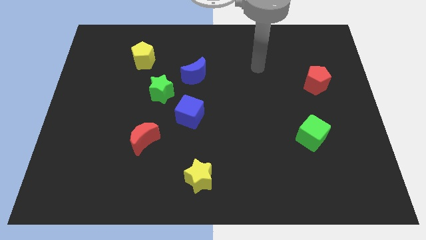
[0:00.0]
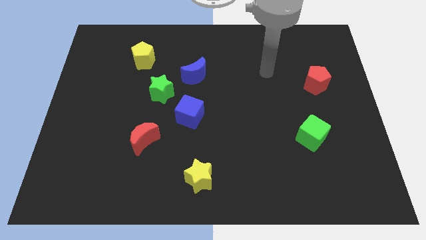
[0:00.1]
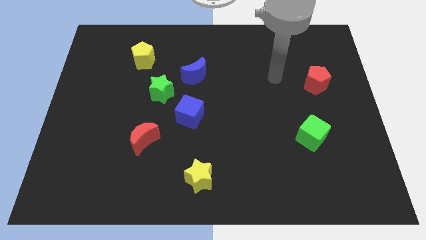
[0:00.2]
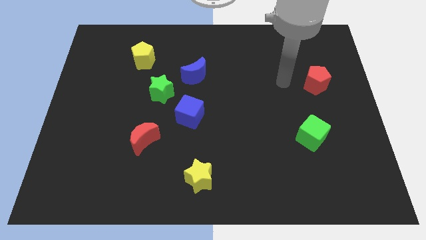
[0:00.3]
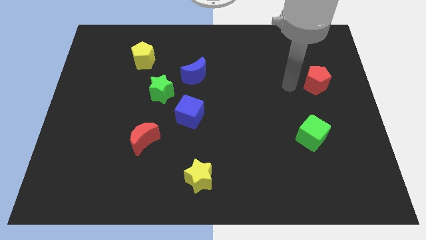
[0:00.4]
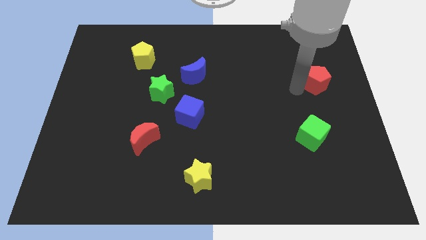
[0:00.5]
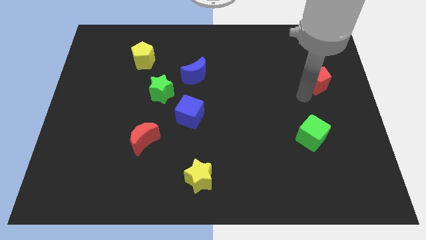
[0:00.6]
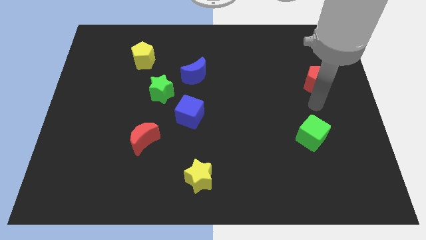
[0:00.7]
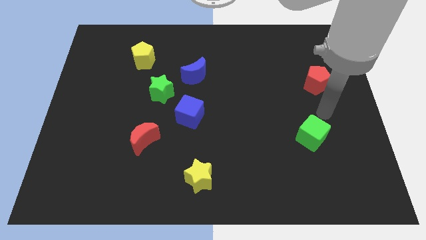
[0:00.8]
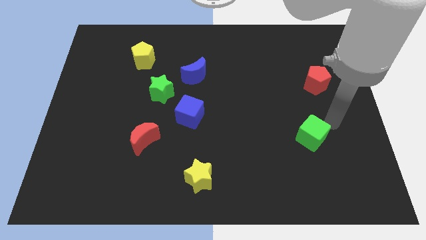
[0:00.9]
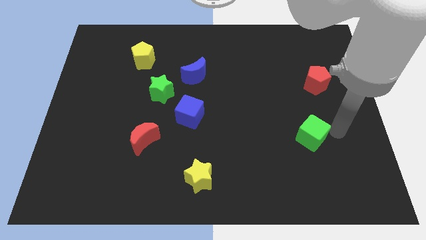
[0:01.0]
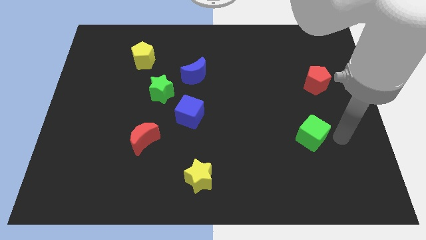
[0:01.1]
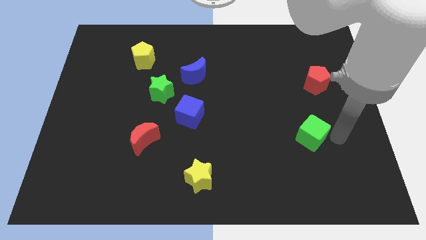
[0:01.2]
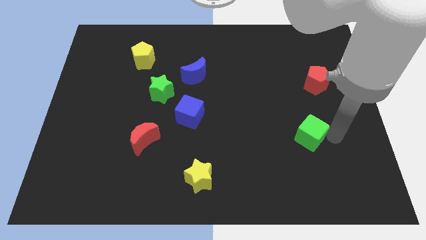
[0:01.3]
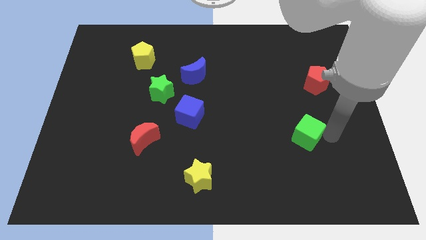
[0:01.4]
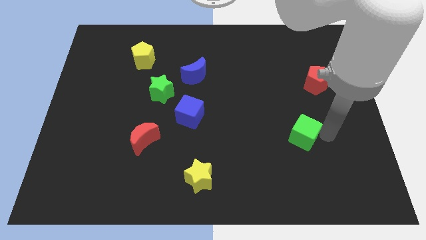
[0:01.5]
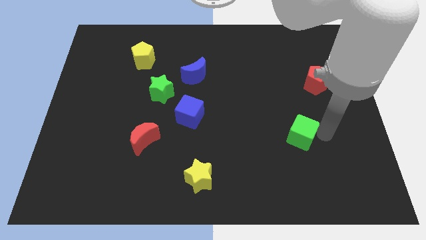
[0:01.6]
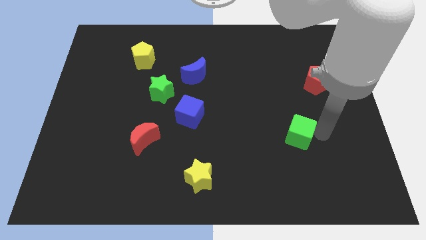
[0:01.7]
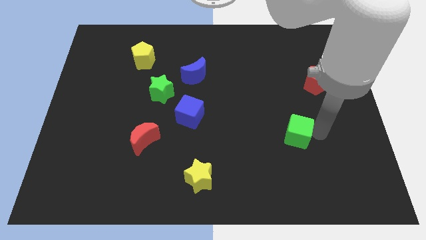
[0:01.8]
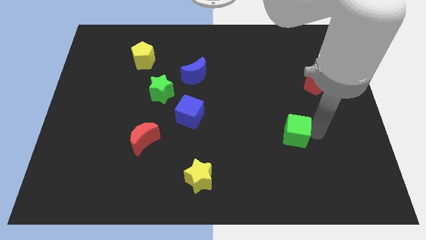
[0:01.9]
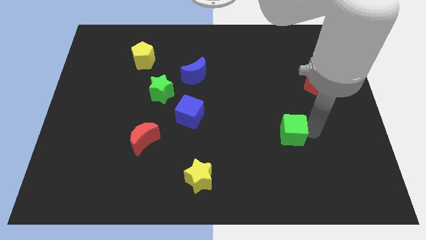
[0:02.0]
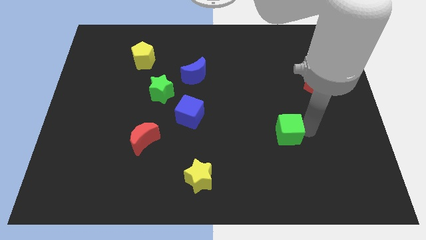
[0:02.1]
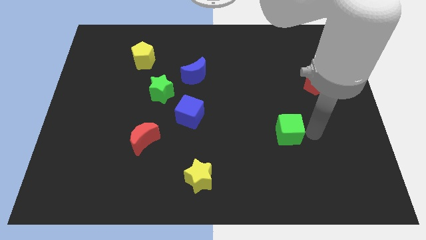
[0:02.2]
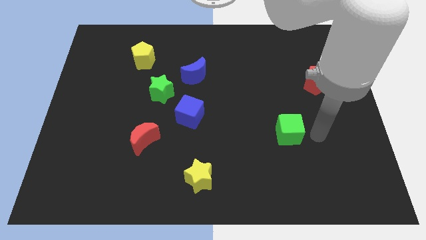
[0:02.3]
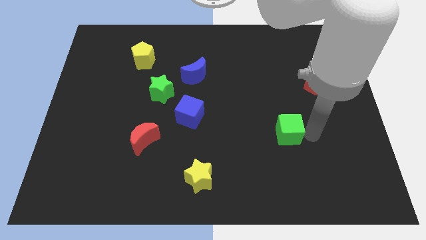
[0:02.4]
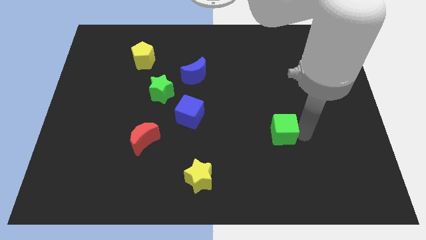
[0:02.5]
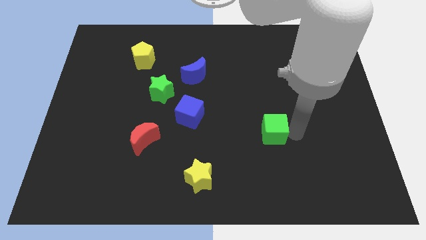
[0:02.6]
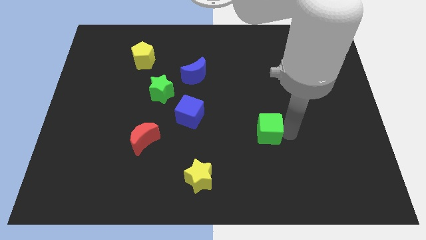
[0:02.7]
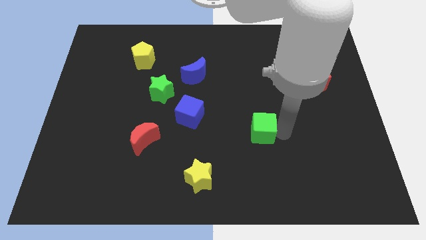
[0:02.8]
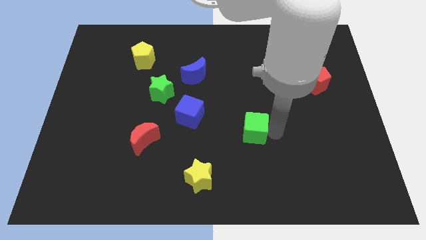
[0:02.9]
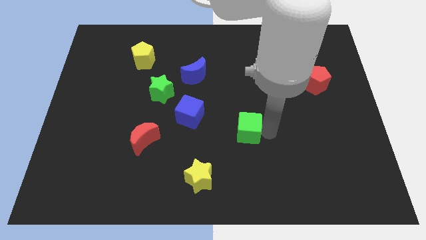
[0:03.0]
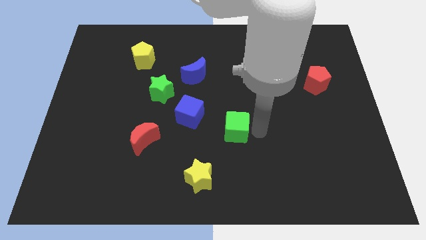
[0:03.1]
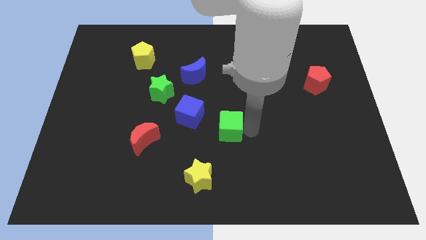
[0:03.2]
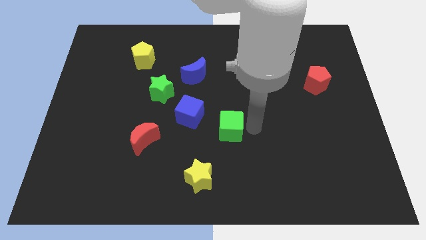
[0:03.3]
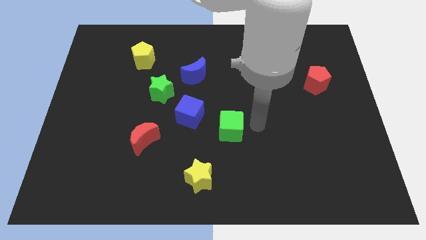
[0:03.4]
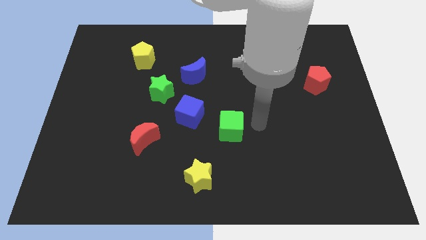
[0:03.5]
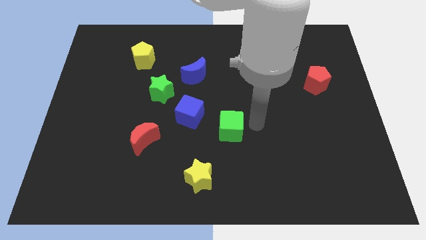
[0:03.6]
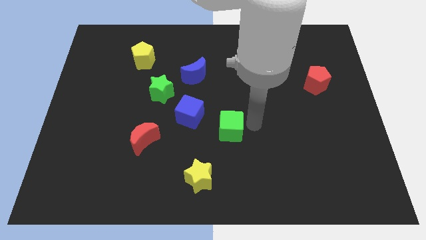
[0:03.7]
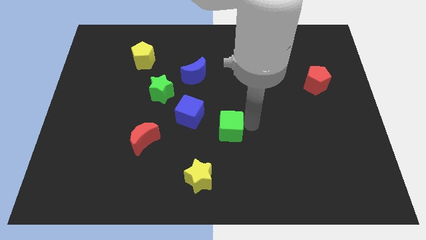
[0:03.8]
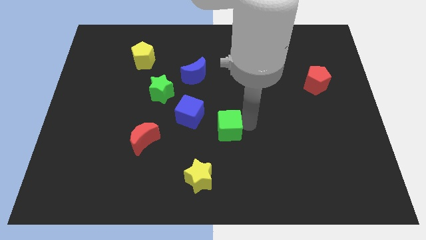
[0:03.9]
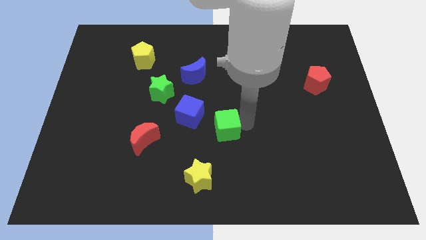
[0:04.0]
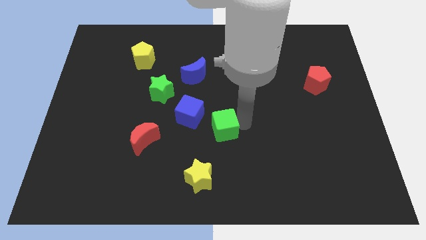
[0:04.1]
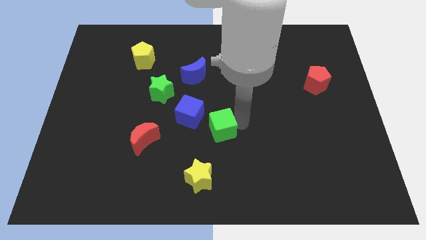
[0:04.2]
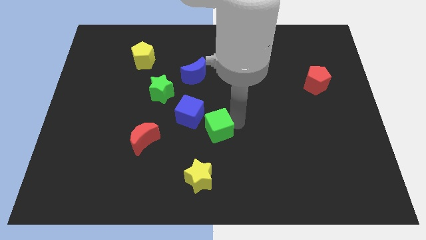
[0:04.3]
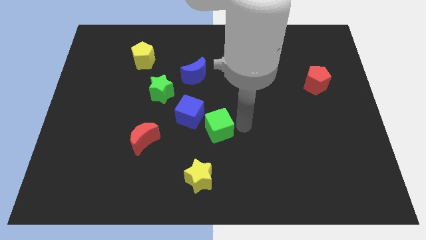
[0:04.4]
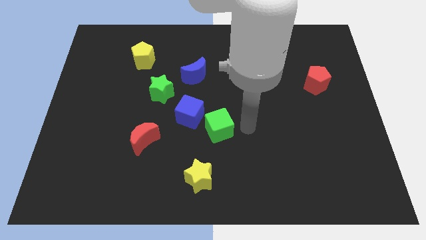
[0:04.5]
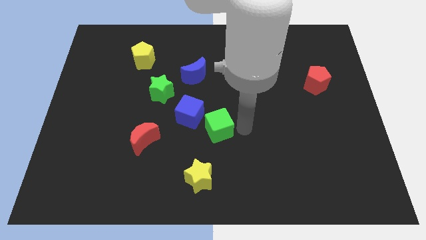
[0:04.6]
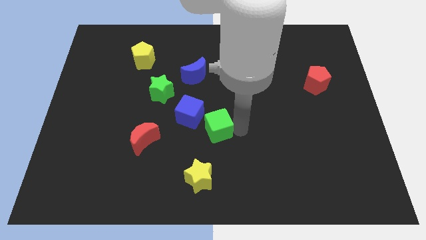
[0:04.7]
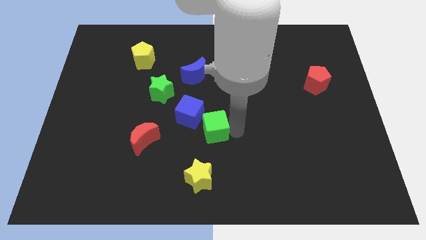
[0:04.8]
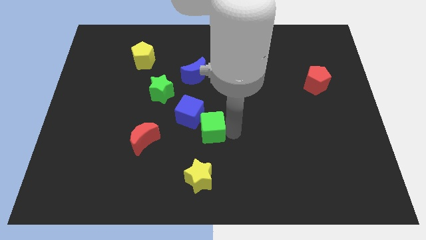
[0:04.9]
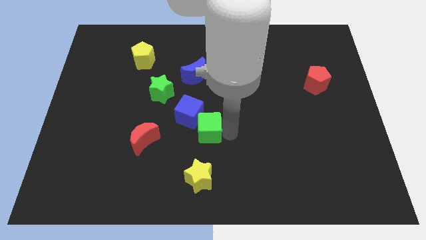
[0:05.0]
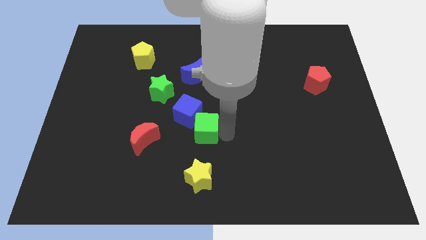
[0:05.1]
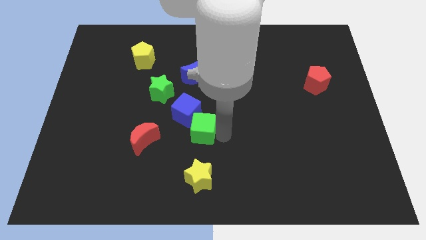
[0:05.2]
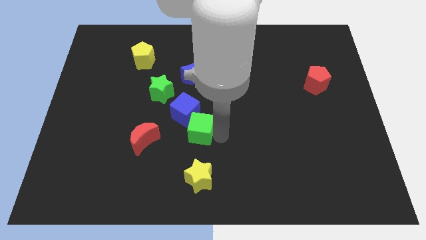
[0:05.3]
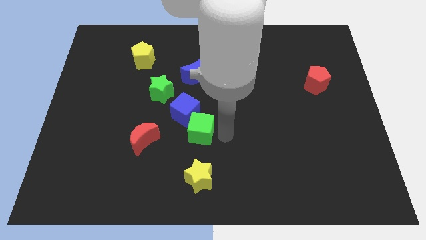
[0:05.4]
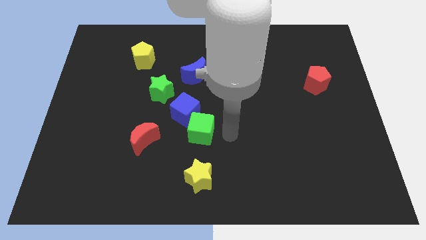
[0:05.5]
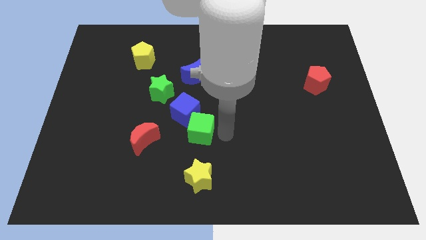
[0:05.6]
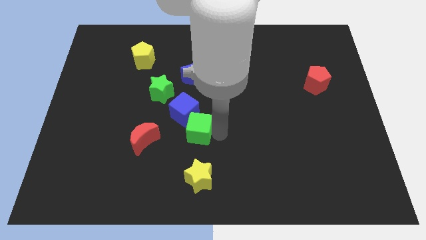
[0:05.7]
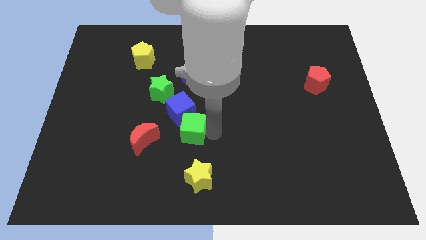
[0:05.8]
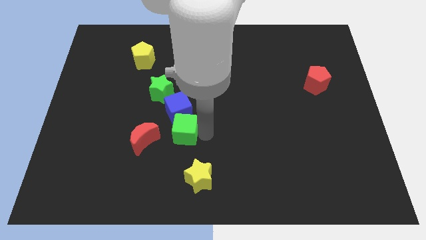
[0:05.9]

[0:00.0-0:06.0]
slide the green cube to the top right of the red moon

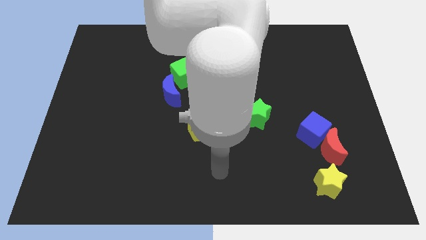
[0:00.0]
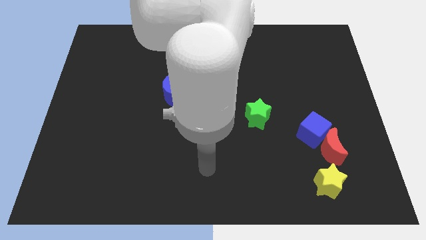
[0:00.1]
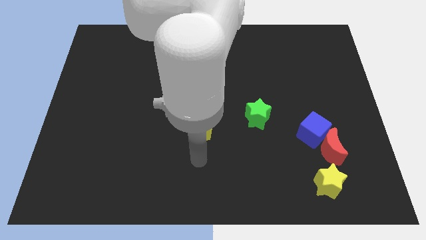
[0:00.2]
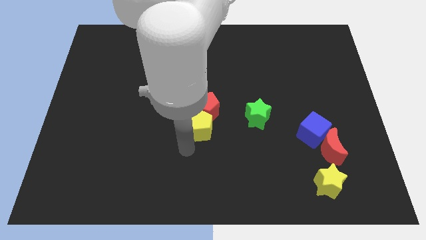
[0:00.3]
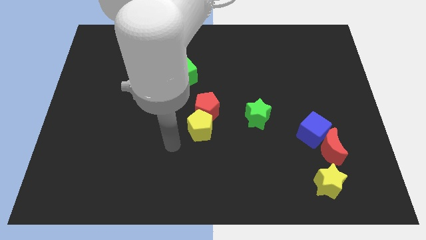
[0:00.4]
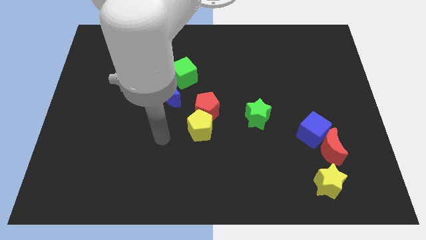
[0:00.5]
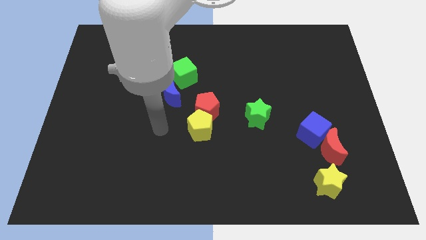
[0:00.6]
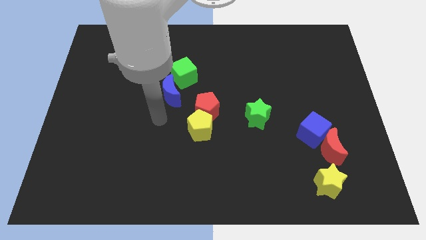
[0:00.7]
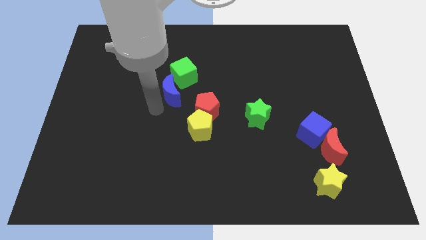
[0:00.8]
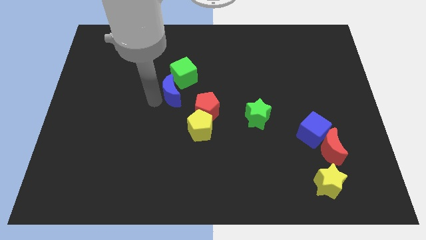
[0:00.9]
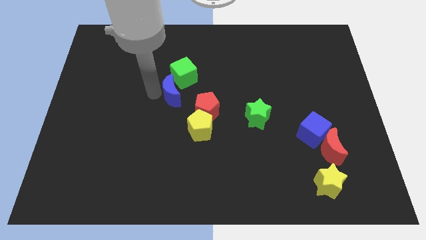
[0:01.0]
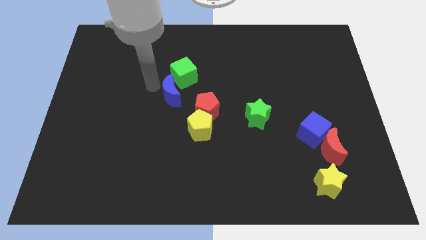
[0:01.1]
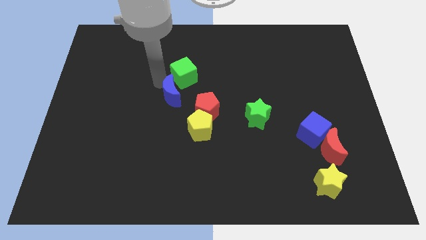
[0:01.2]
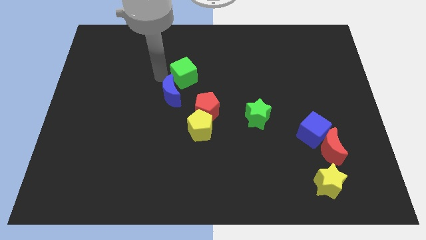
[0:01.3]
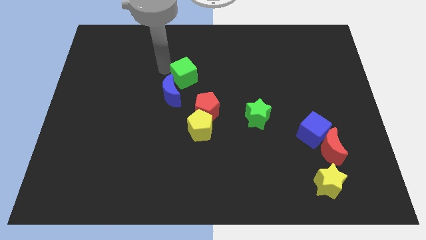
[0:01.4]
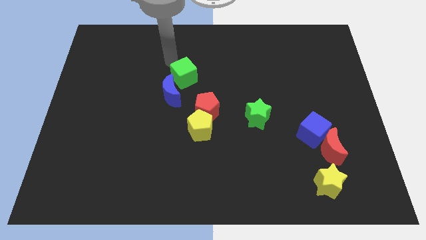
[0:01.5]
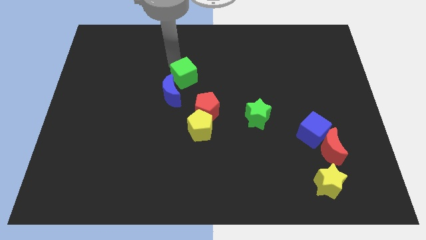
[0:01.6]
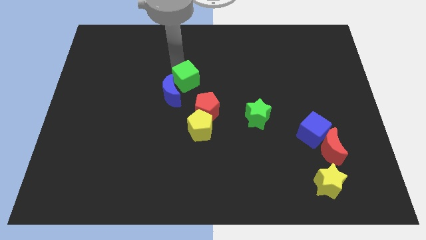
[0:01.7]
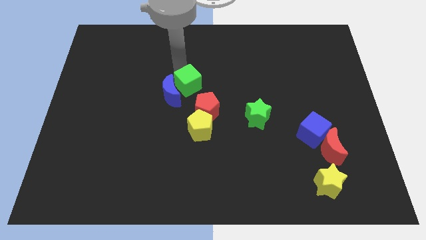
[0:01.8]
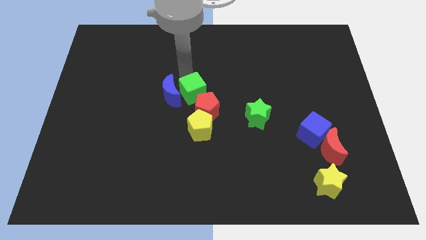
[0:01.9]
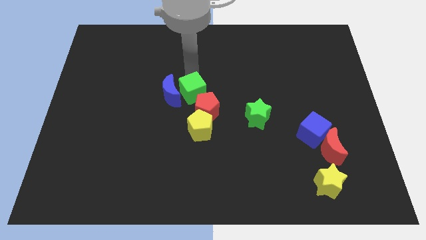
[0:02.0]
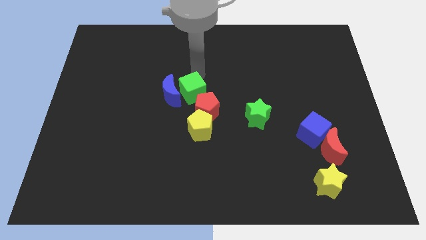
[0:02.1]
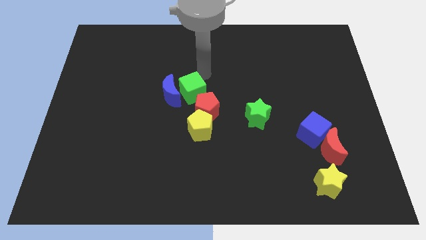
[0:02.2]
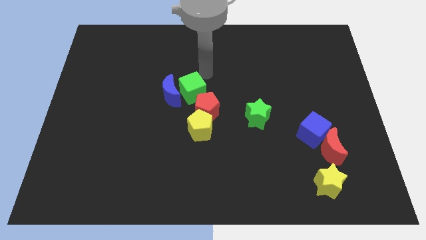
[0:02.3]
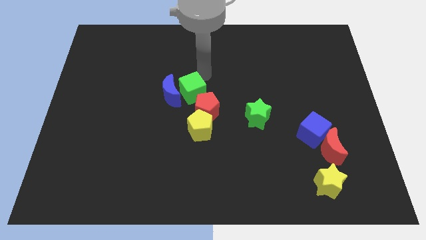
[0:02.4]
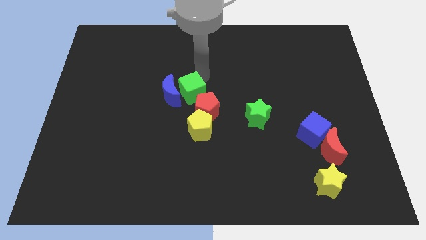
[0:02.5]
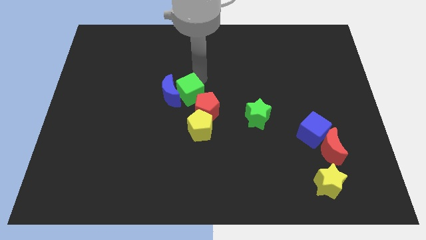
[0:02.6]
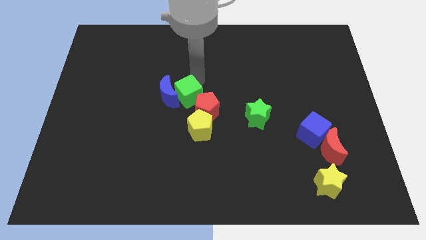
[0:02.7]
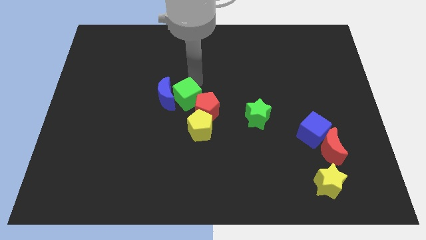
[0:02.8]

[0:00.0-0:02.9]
slide the green cube diagonally up and to the left of the yellow pentagon
